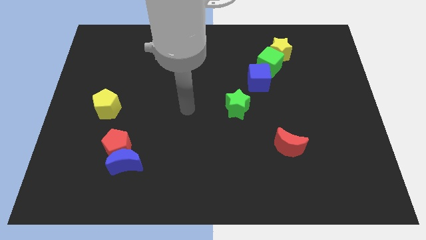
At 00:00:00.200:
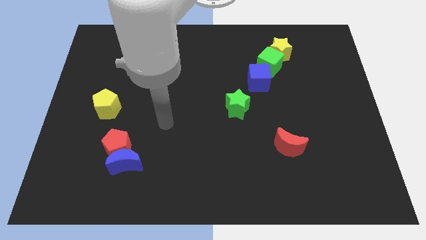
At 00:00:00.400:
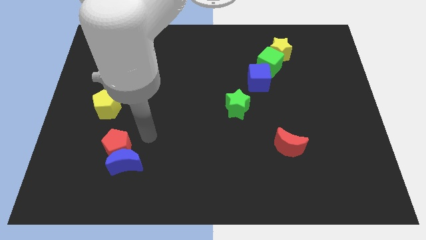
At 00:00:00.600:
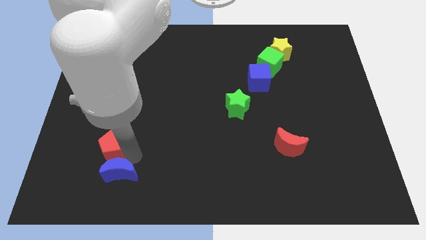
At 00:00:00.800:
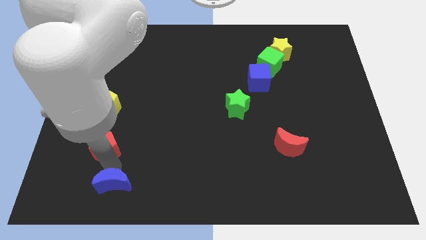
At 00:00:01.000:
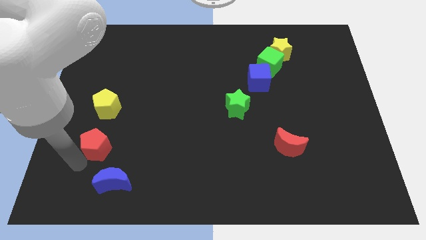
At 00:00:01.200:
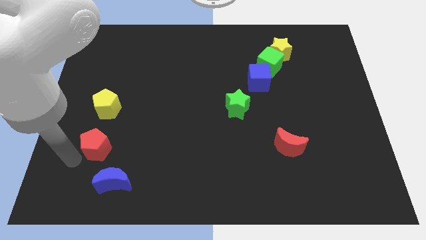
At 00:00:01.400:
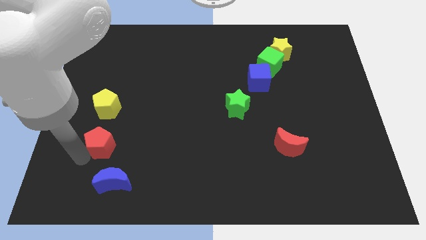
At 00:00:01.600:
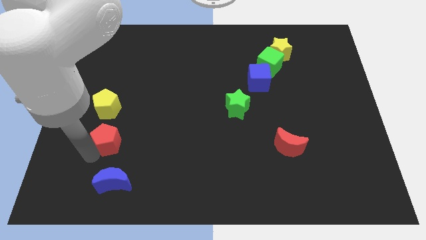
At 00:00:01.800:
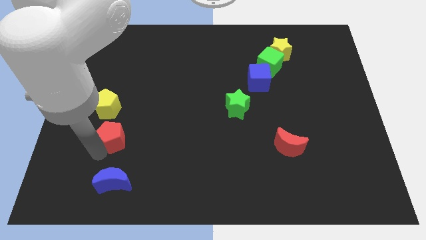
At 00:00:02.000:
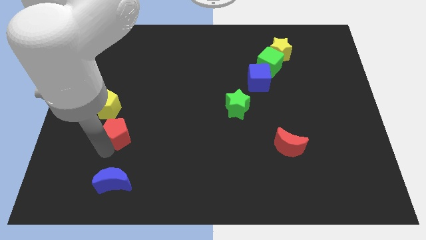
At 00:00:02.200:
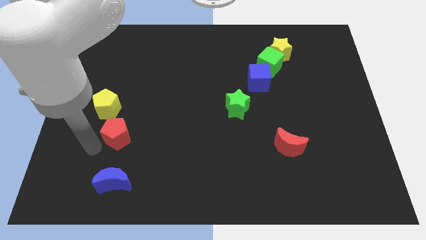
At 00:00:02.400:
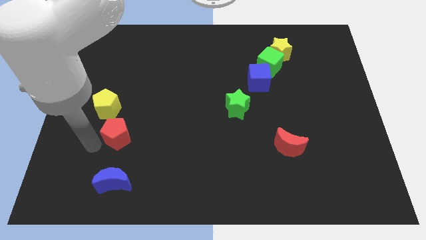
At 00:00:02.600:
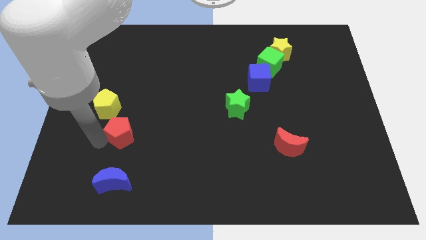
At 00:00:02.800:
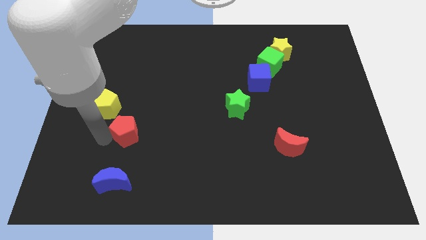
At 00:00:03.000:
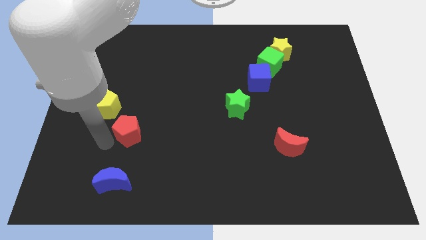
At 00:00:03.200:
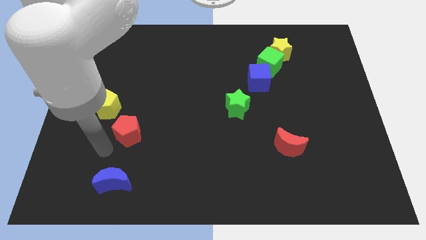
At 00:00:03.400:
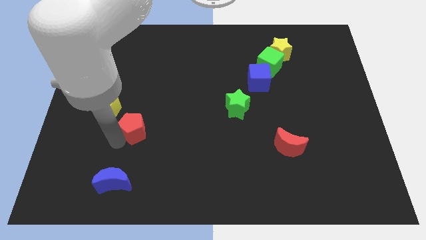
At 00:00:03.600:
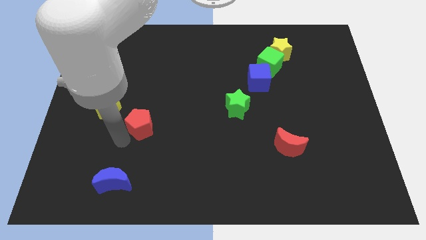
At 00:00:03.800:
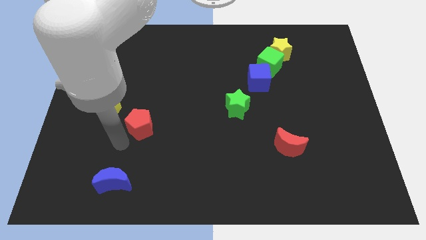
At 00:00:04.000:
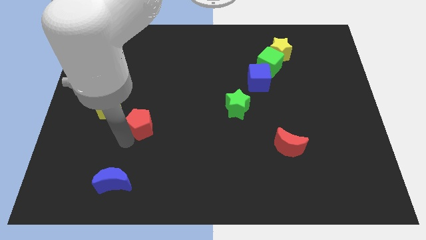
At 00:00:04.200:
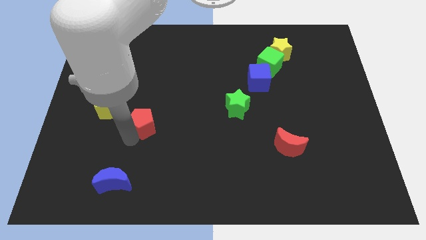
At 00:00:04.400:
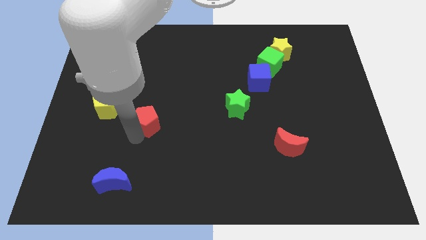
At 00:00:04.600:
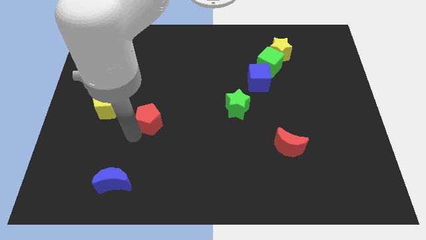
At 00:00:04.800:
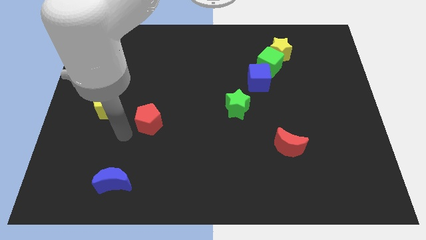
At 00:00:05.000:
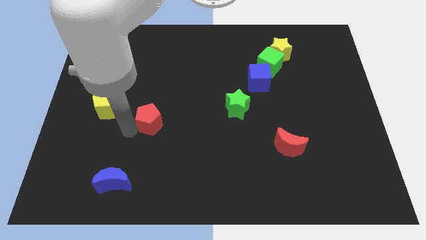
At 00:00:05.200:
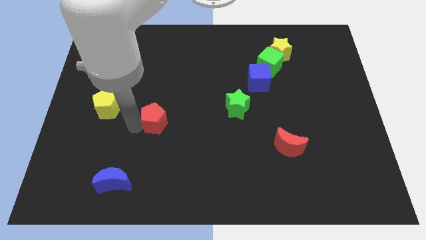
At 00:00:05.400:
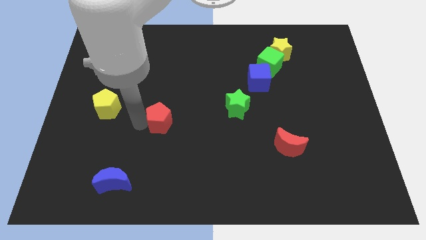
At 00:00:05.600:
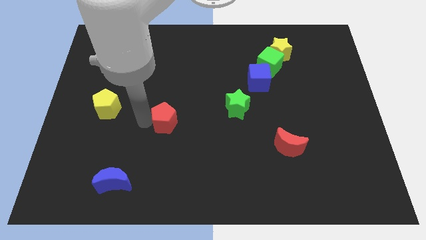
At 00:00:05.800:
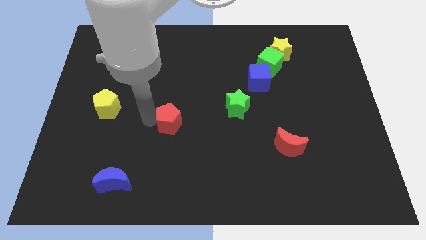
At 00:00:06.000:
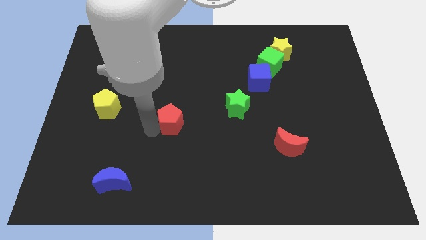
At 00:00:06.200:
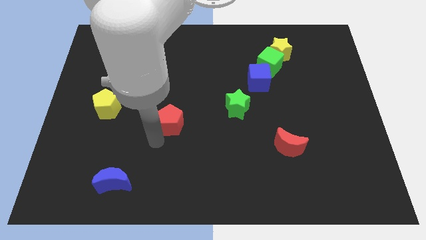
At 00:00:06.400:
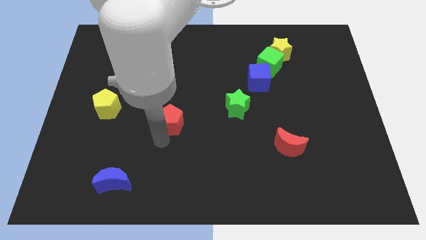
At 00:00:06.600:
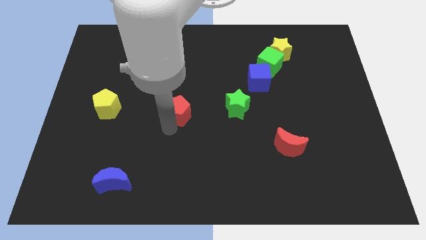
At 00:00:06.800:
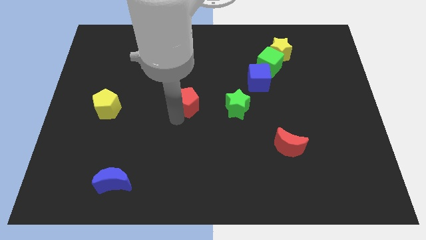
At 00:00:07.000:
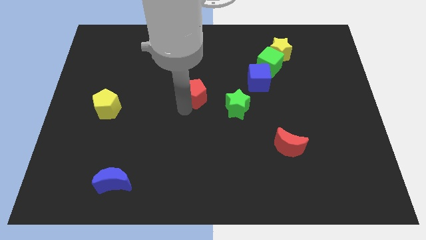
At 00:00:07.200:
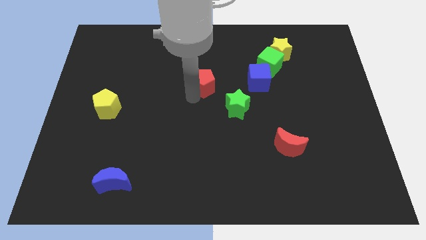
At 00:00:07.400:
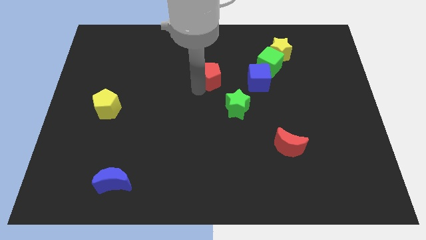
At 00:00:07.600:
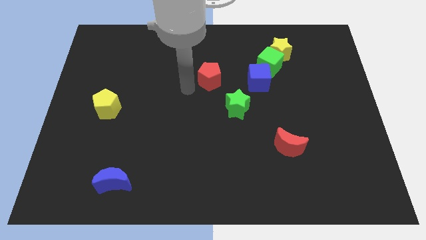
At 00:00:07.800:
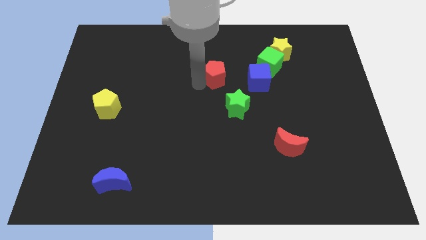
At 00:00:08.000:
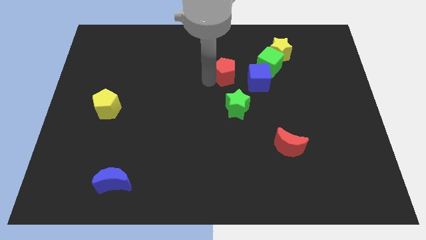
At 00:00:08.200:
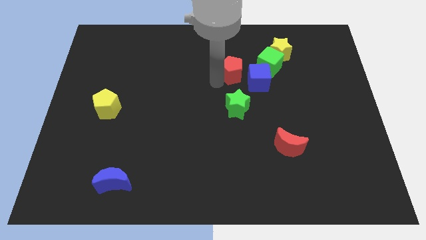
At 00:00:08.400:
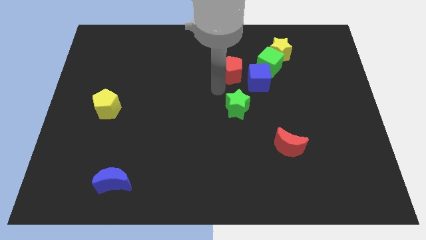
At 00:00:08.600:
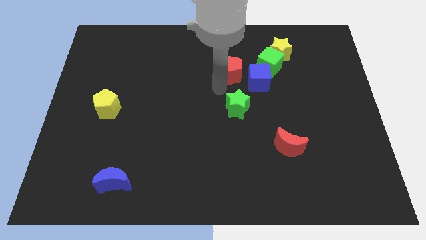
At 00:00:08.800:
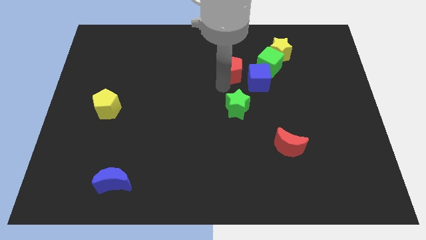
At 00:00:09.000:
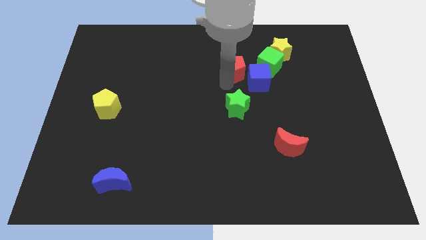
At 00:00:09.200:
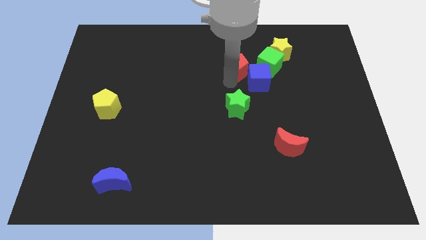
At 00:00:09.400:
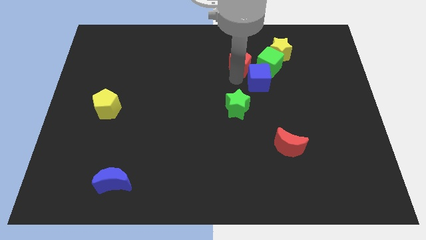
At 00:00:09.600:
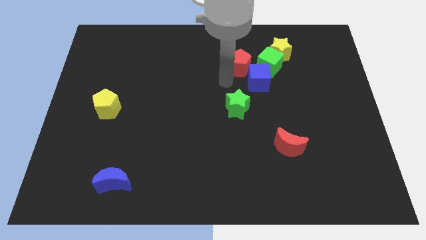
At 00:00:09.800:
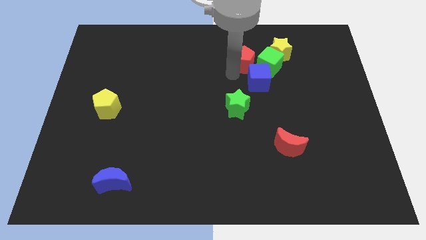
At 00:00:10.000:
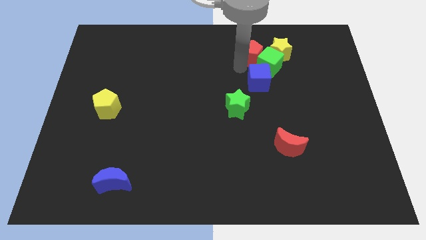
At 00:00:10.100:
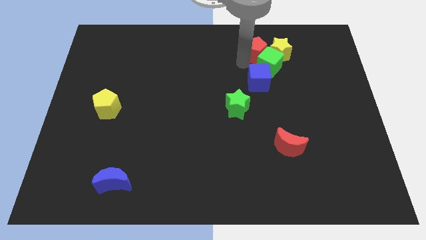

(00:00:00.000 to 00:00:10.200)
slide the red pentagon towards the yellow star

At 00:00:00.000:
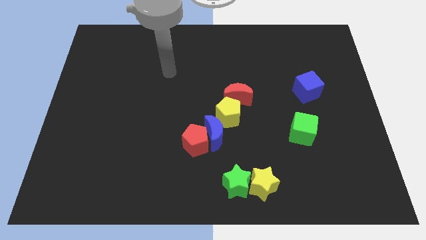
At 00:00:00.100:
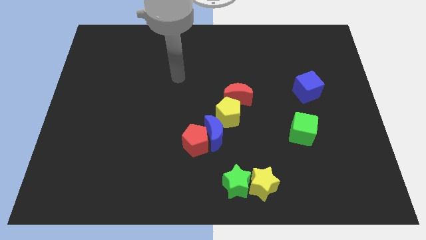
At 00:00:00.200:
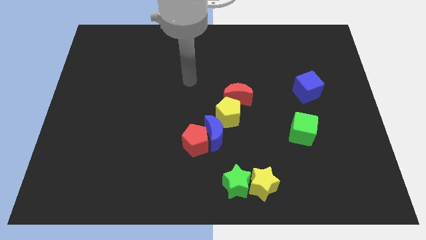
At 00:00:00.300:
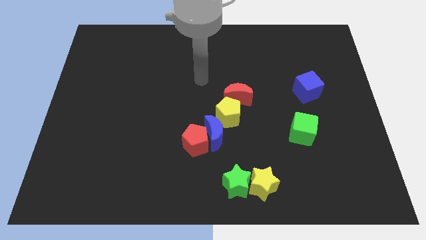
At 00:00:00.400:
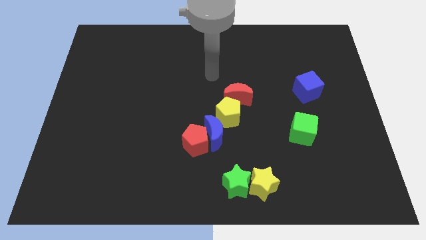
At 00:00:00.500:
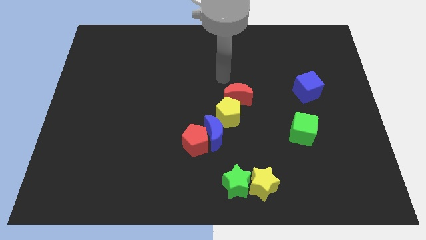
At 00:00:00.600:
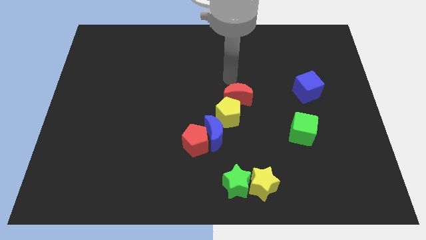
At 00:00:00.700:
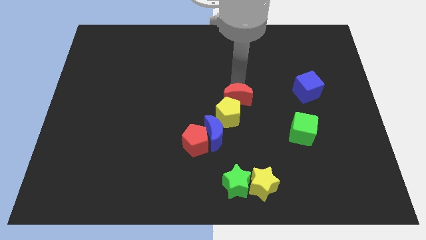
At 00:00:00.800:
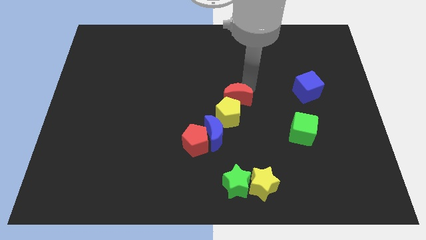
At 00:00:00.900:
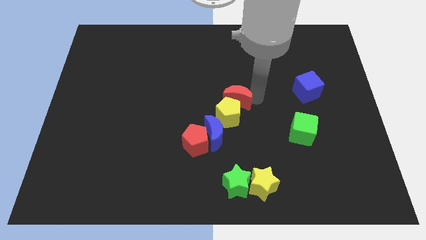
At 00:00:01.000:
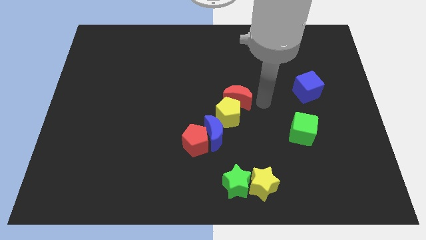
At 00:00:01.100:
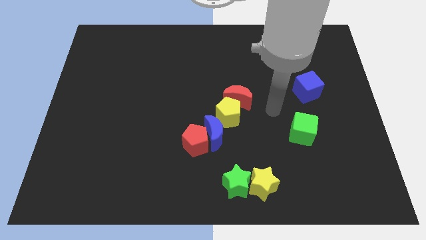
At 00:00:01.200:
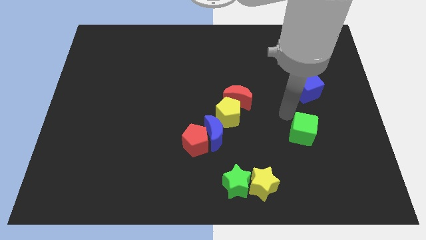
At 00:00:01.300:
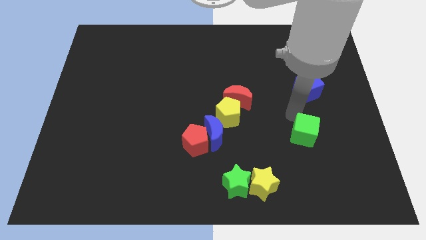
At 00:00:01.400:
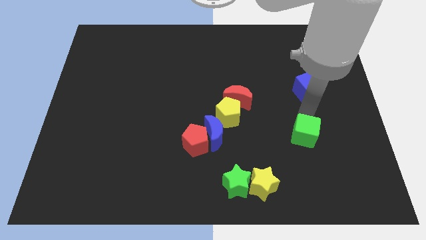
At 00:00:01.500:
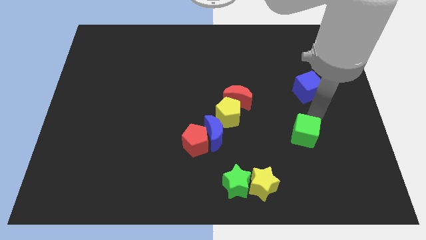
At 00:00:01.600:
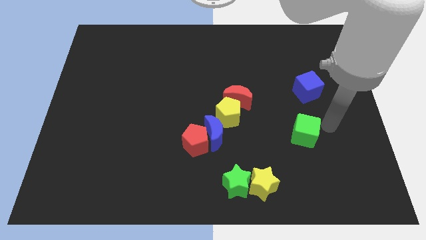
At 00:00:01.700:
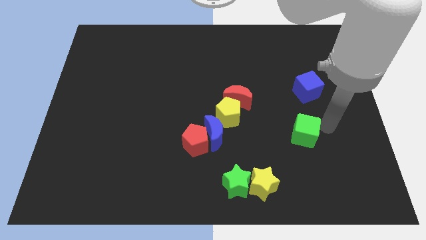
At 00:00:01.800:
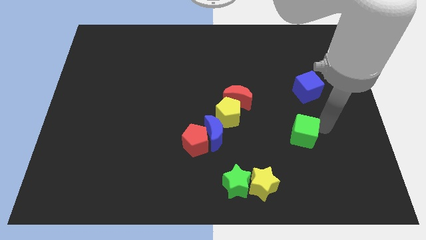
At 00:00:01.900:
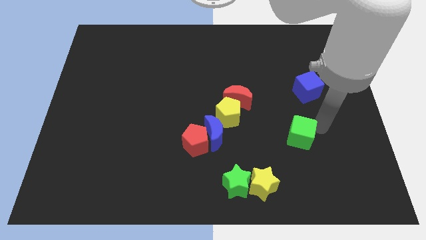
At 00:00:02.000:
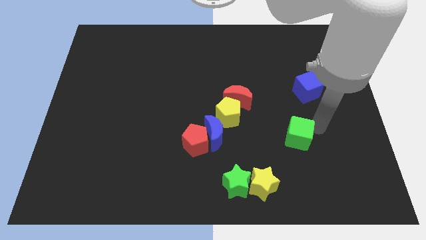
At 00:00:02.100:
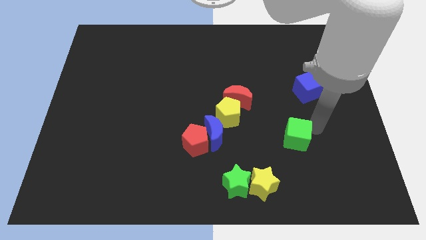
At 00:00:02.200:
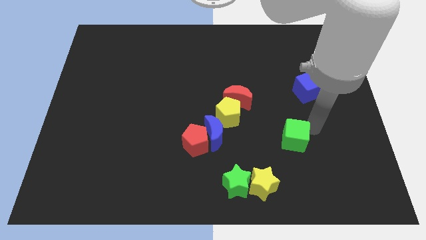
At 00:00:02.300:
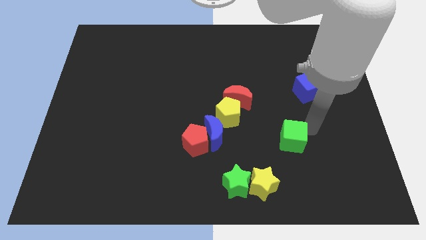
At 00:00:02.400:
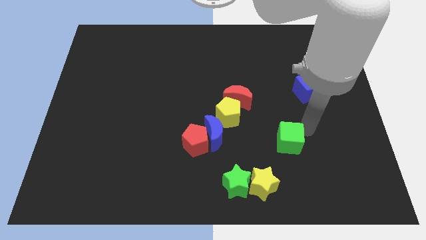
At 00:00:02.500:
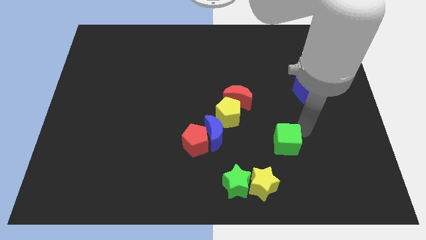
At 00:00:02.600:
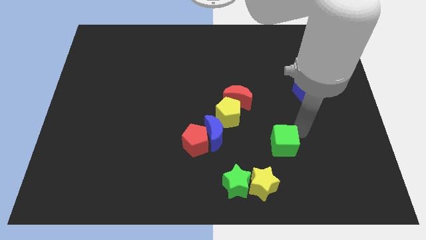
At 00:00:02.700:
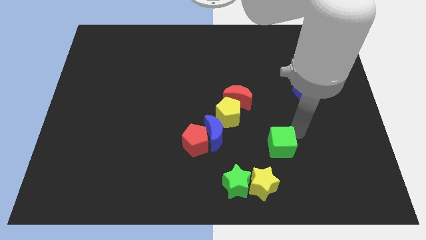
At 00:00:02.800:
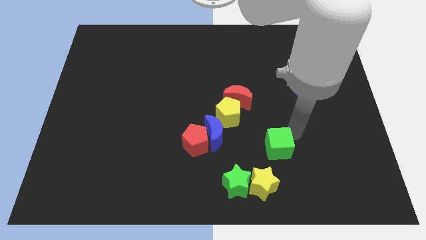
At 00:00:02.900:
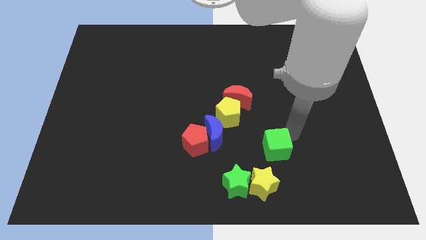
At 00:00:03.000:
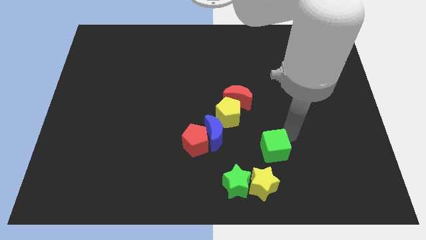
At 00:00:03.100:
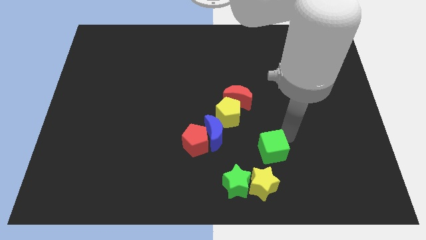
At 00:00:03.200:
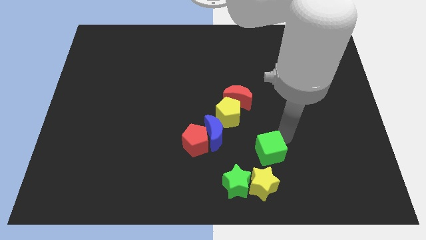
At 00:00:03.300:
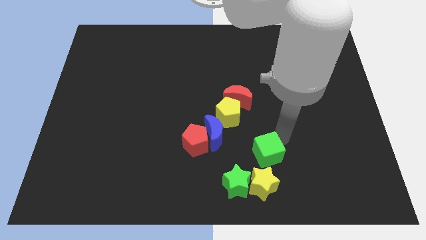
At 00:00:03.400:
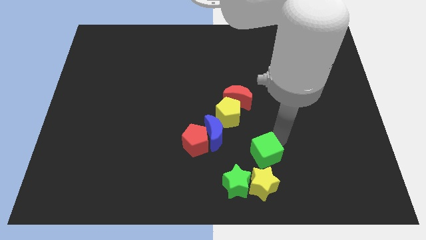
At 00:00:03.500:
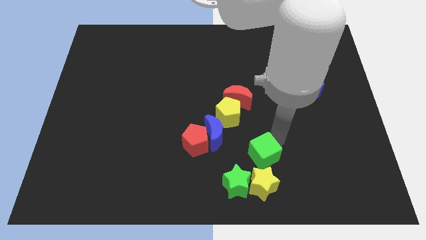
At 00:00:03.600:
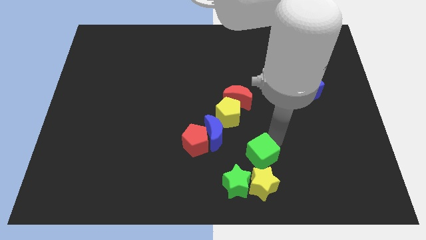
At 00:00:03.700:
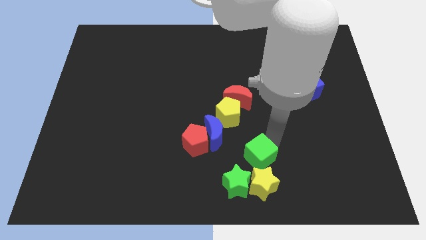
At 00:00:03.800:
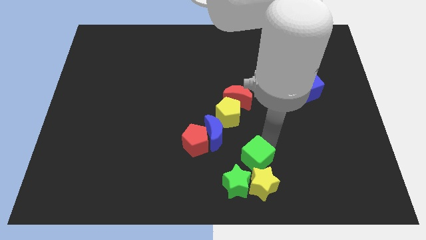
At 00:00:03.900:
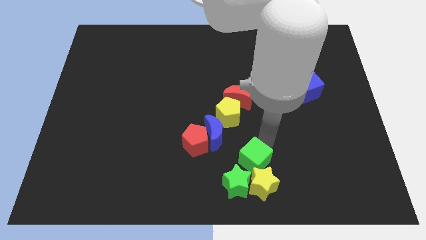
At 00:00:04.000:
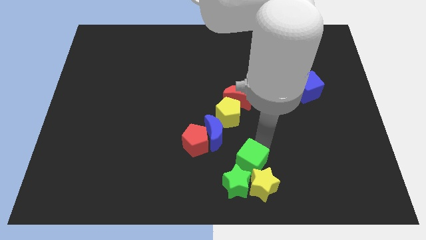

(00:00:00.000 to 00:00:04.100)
slide the green cube next to the green star
